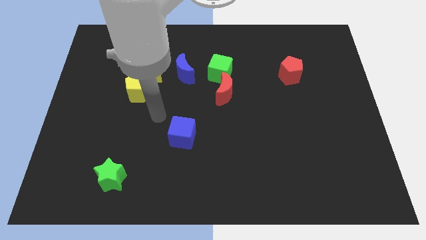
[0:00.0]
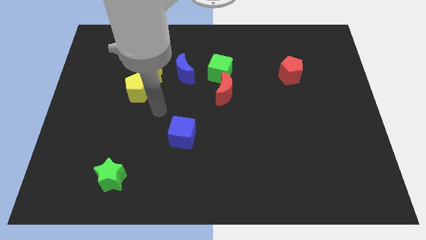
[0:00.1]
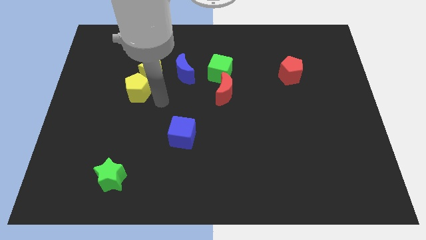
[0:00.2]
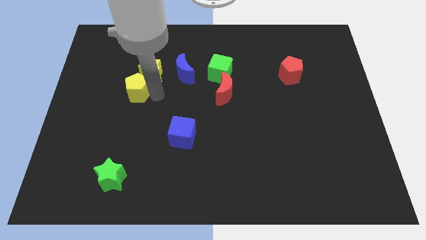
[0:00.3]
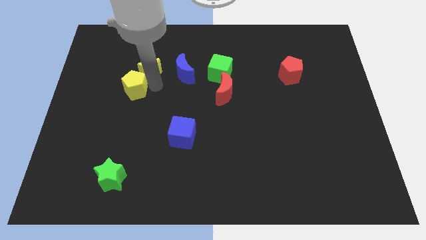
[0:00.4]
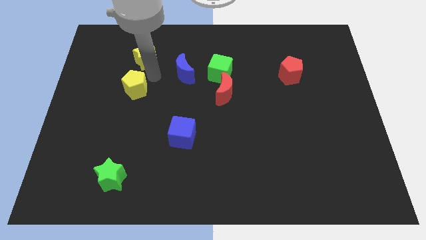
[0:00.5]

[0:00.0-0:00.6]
separate the yellow pentagon from the yellow star

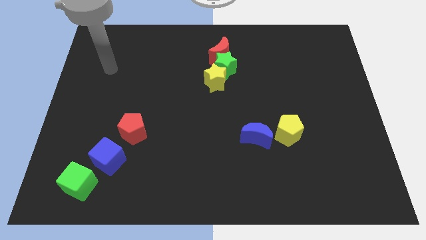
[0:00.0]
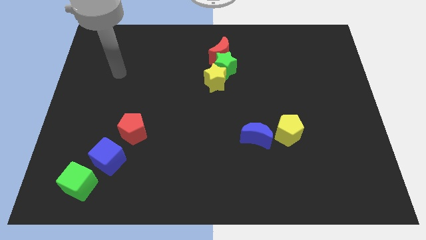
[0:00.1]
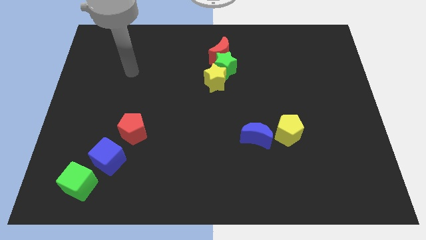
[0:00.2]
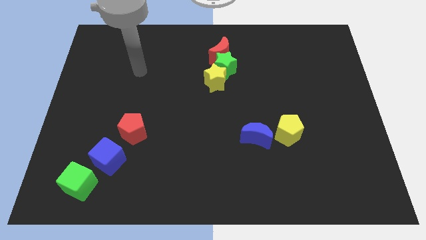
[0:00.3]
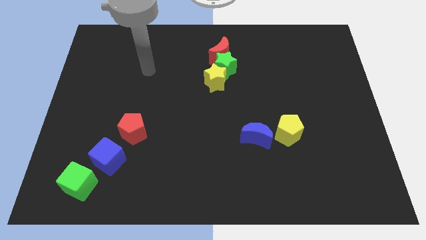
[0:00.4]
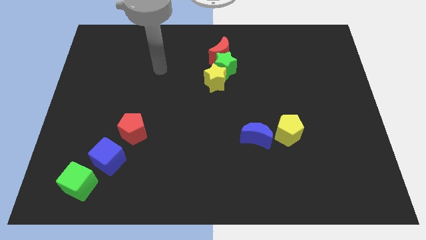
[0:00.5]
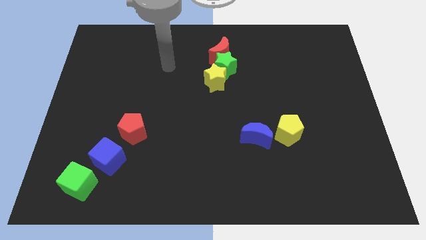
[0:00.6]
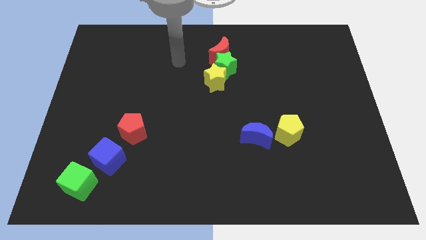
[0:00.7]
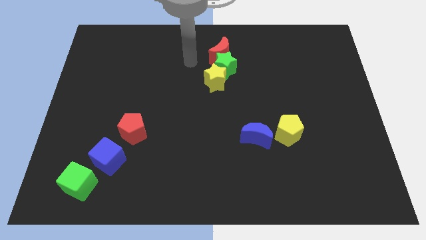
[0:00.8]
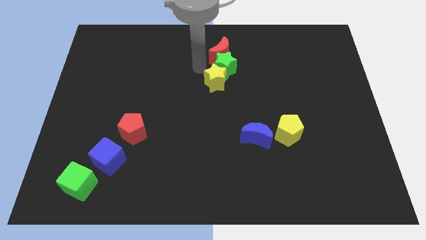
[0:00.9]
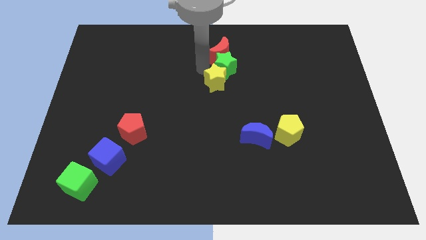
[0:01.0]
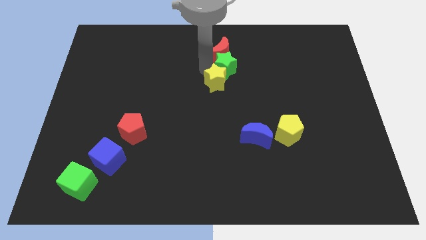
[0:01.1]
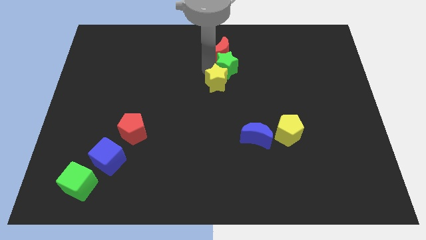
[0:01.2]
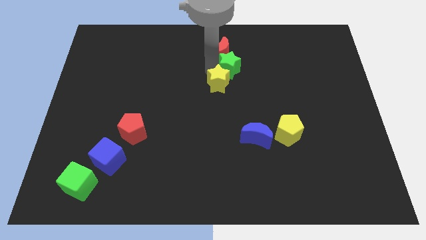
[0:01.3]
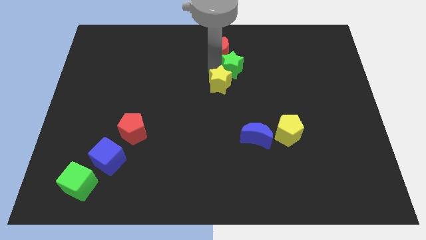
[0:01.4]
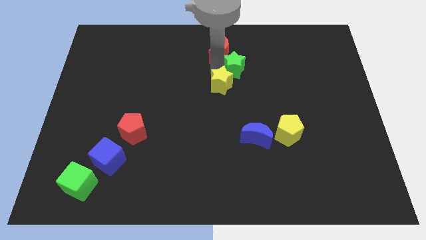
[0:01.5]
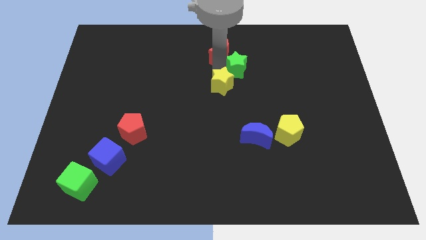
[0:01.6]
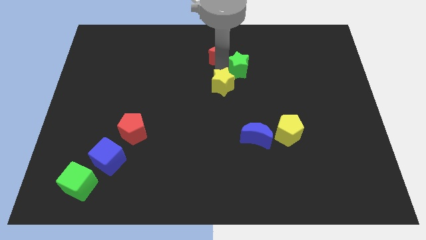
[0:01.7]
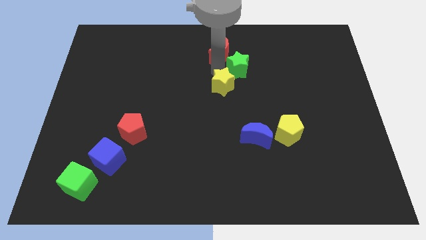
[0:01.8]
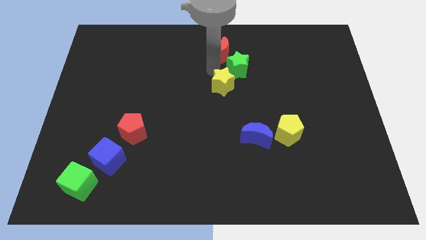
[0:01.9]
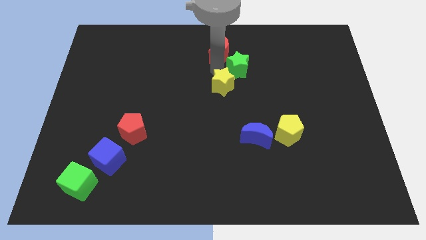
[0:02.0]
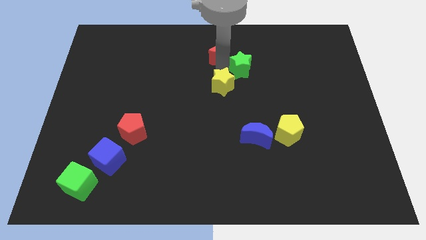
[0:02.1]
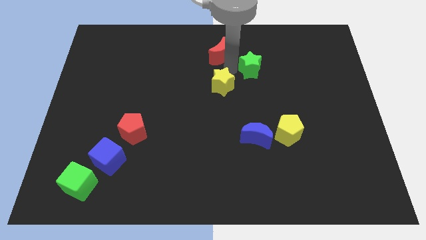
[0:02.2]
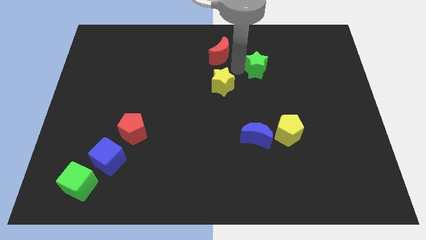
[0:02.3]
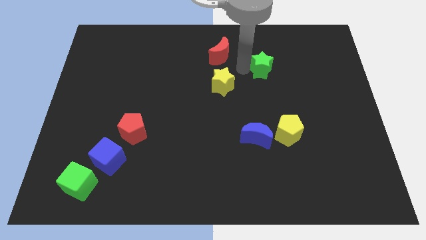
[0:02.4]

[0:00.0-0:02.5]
separate the green star from the red moon and yellow star

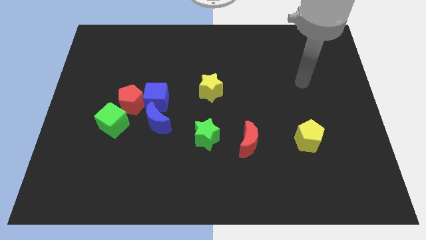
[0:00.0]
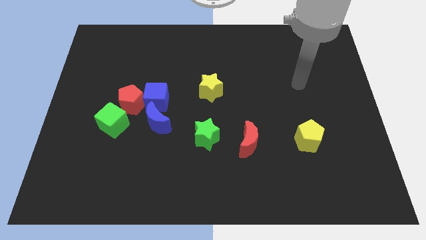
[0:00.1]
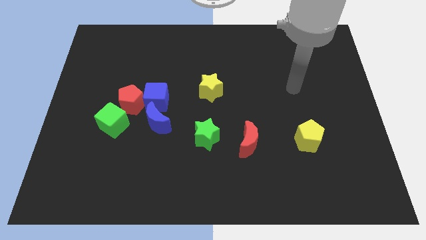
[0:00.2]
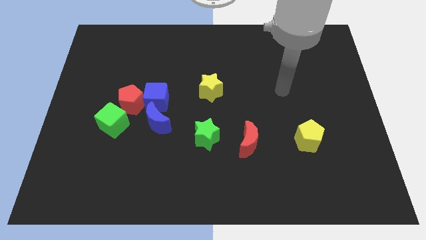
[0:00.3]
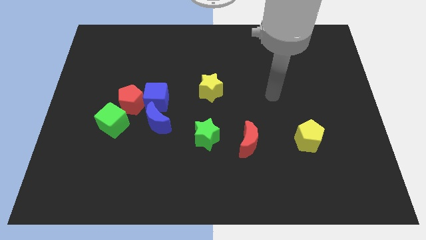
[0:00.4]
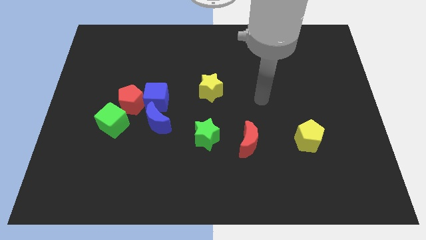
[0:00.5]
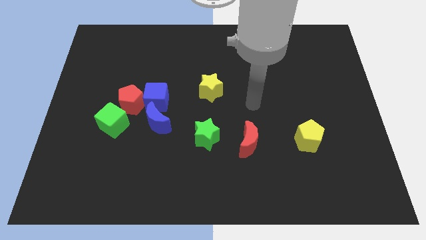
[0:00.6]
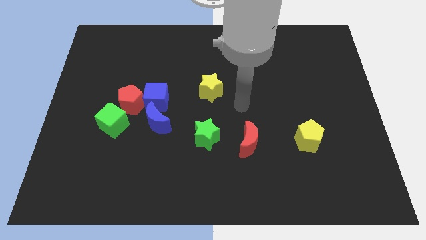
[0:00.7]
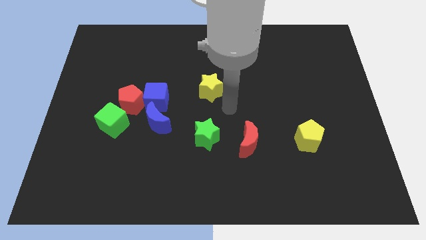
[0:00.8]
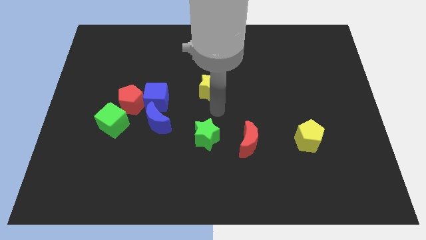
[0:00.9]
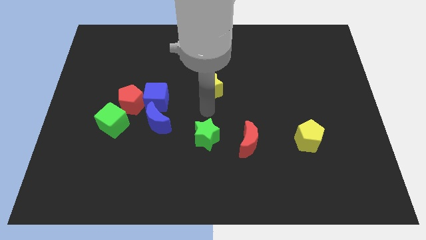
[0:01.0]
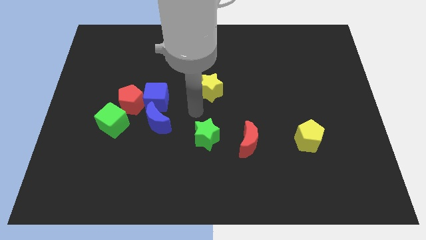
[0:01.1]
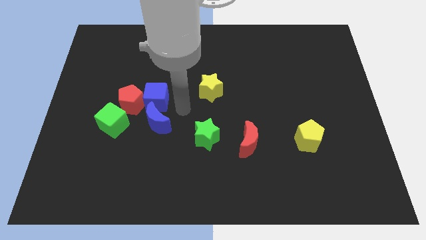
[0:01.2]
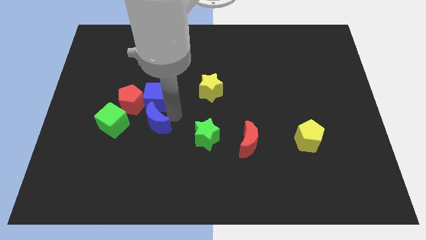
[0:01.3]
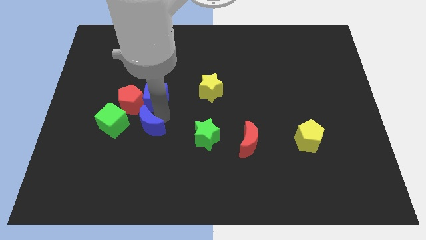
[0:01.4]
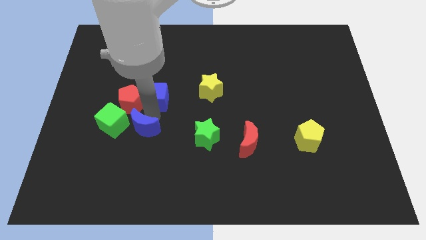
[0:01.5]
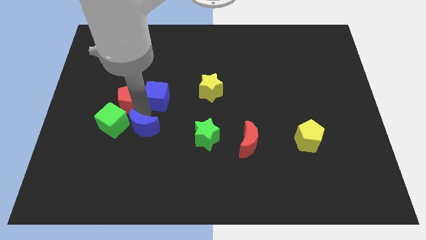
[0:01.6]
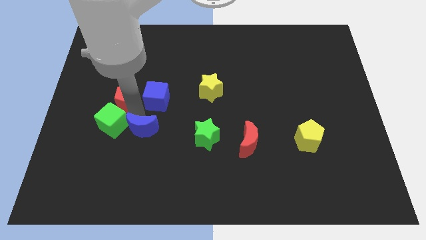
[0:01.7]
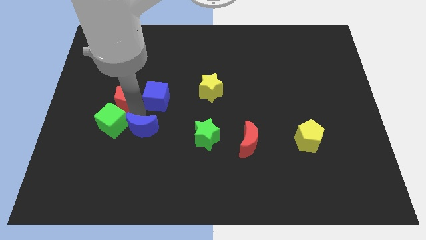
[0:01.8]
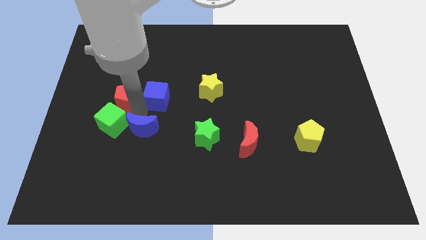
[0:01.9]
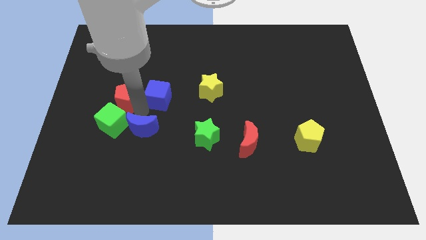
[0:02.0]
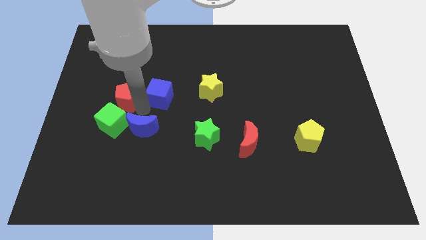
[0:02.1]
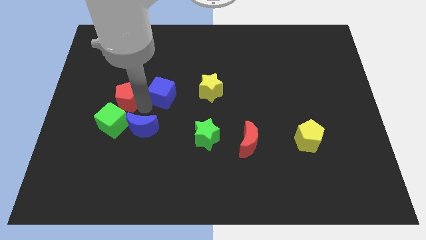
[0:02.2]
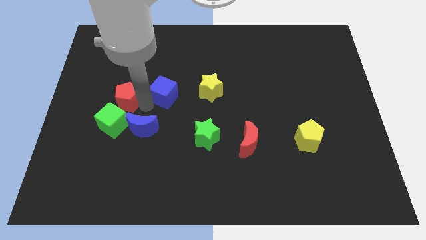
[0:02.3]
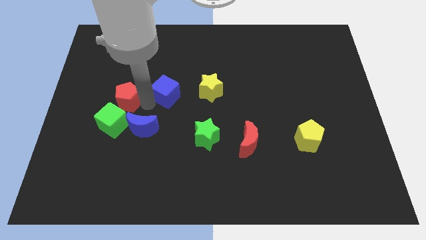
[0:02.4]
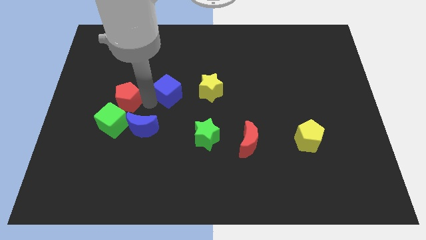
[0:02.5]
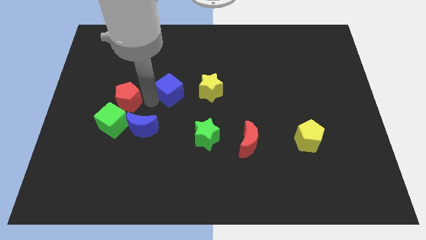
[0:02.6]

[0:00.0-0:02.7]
pull the blue cube apart from the red pentagon and blue moon

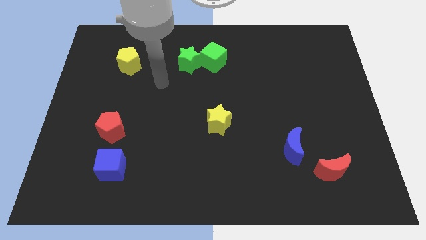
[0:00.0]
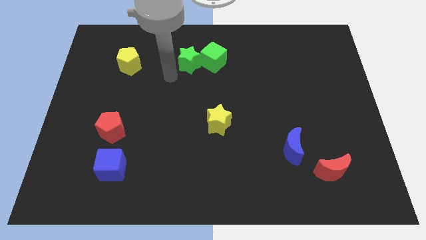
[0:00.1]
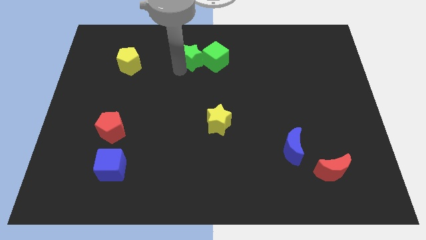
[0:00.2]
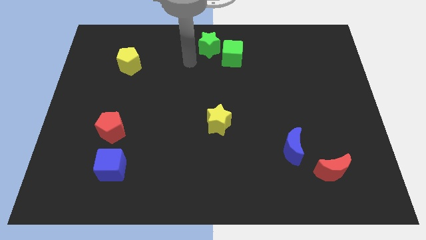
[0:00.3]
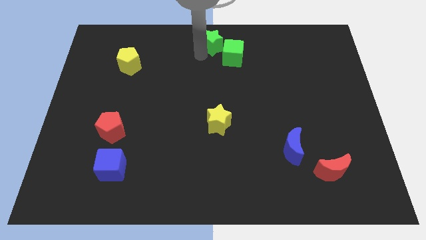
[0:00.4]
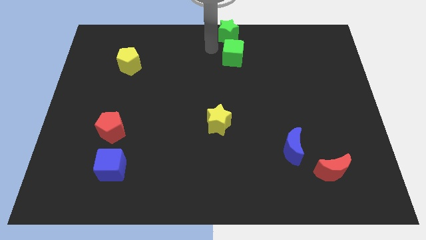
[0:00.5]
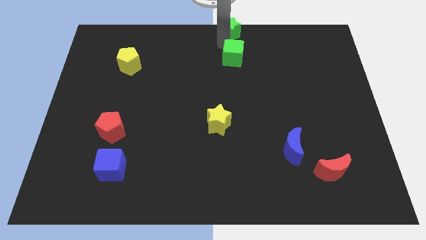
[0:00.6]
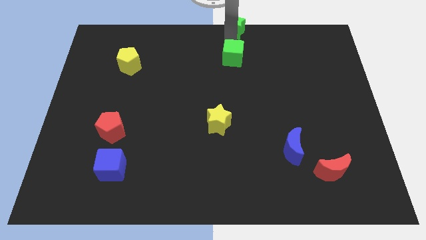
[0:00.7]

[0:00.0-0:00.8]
separate the green cube from the green star

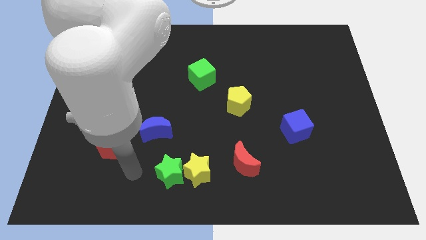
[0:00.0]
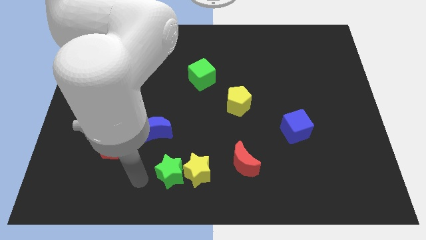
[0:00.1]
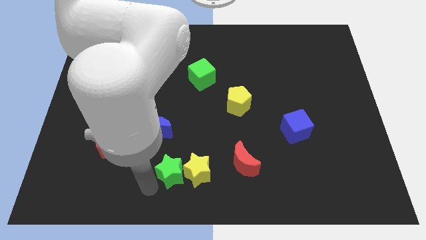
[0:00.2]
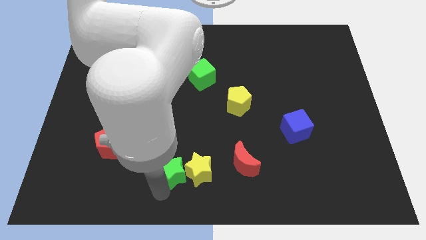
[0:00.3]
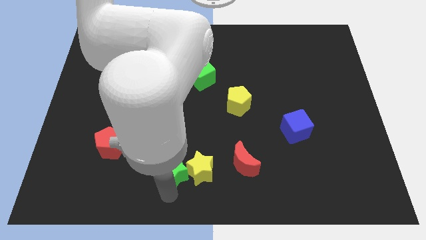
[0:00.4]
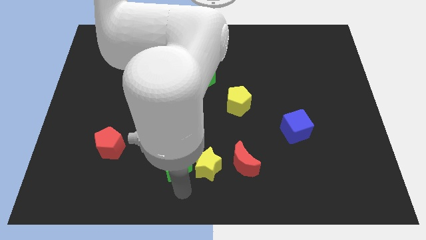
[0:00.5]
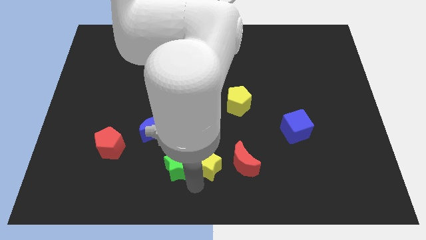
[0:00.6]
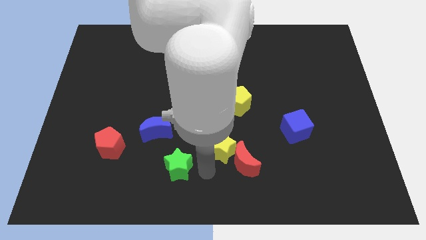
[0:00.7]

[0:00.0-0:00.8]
separate the green star from the yellow star

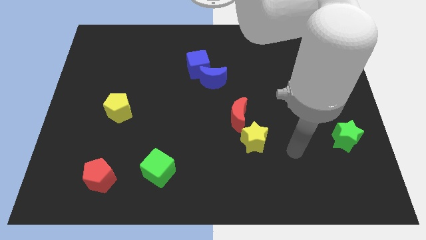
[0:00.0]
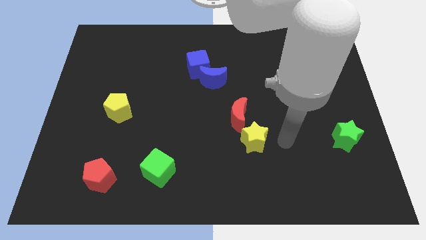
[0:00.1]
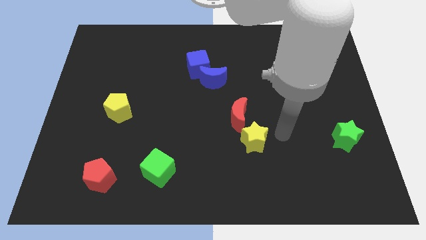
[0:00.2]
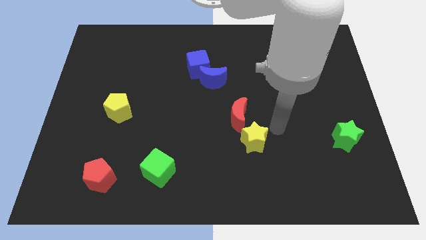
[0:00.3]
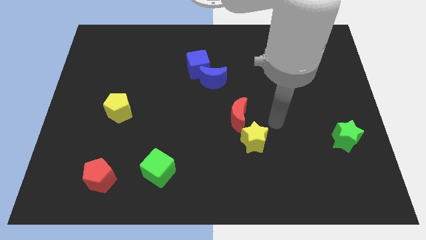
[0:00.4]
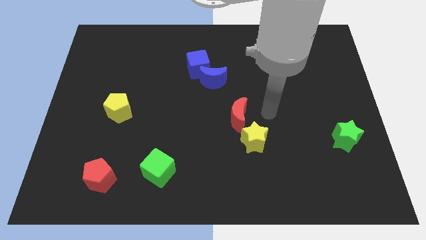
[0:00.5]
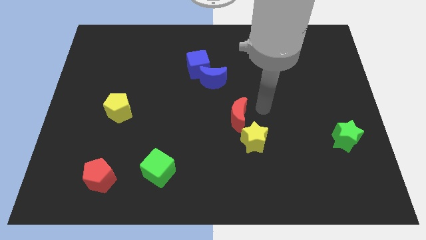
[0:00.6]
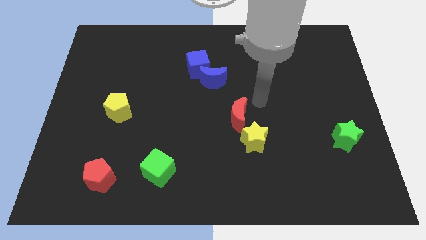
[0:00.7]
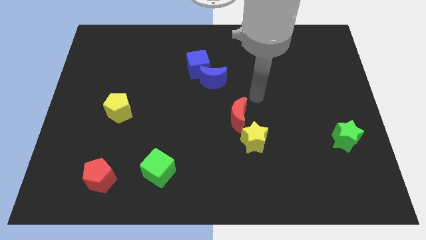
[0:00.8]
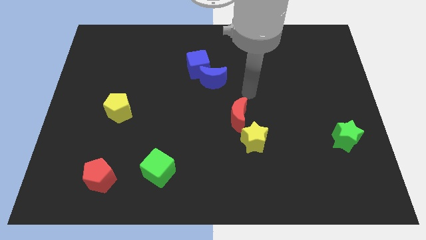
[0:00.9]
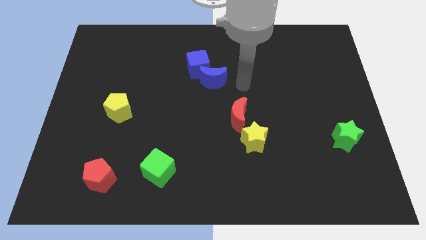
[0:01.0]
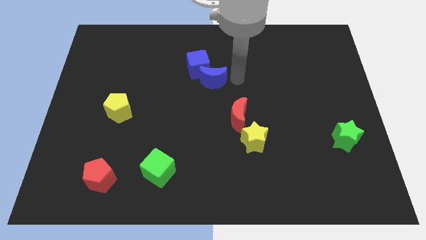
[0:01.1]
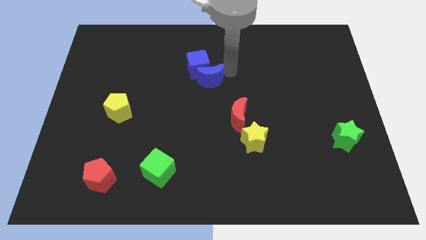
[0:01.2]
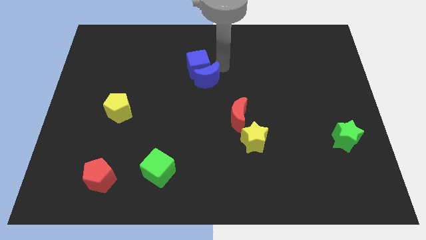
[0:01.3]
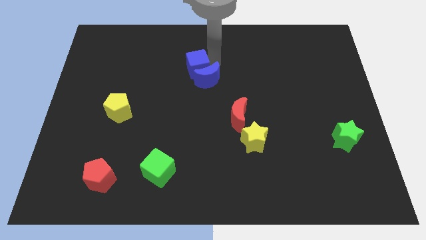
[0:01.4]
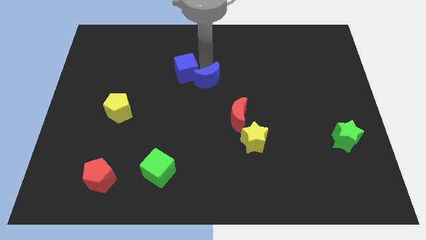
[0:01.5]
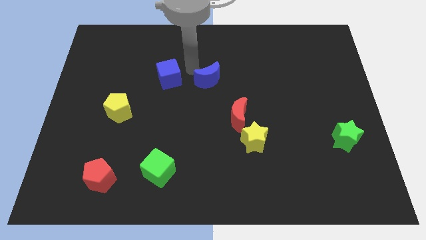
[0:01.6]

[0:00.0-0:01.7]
separate the blue moon from the blue cube

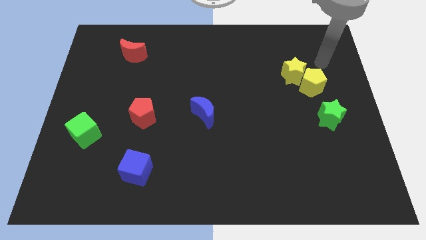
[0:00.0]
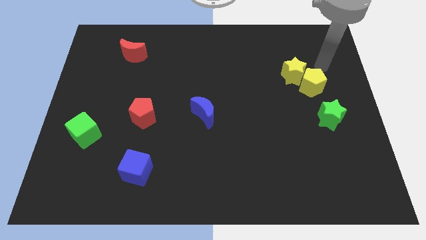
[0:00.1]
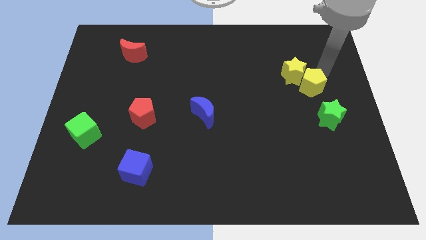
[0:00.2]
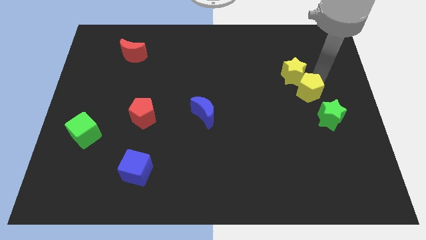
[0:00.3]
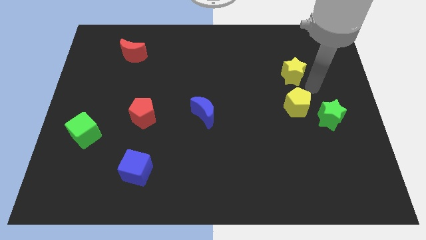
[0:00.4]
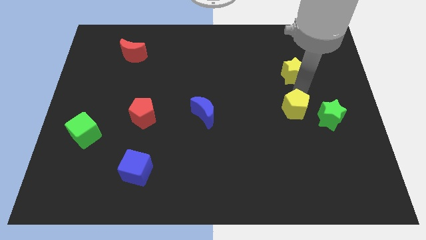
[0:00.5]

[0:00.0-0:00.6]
separate the yellow star from the yellow pentagon
